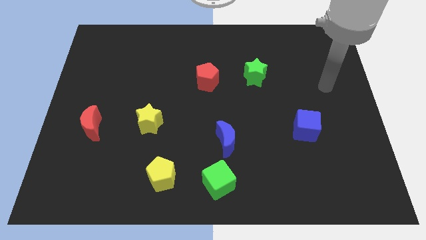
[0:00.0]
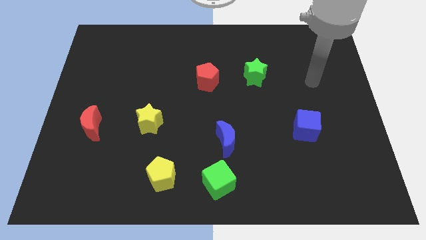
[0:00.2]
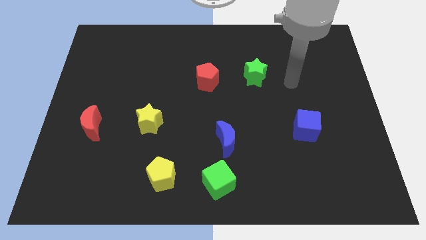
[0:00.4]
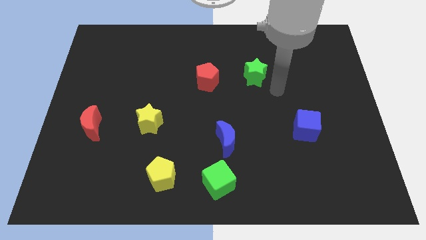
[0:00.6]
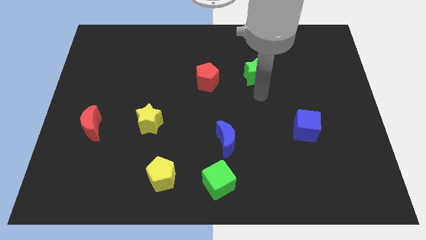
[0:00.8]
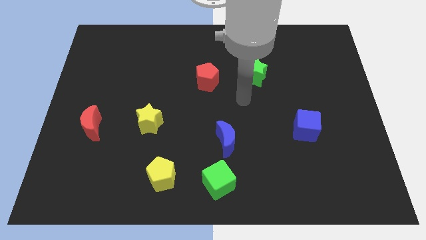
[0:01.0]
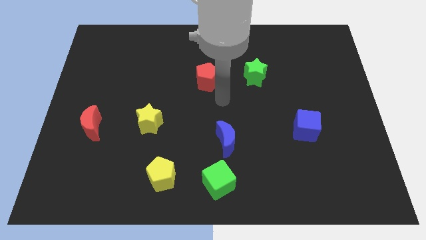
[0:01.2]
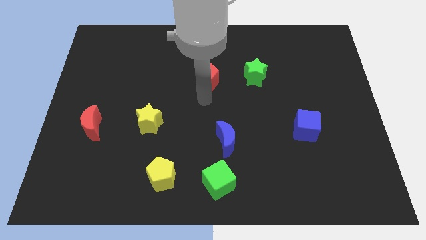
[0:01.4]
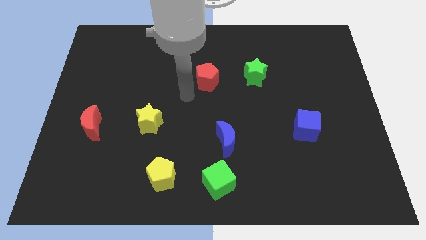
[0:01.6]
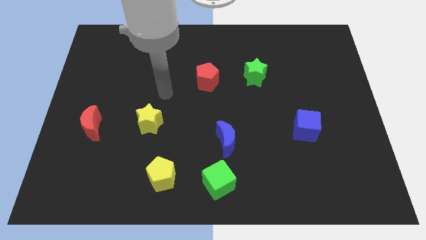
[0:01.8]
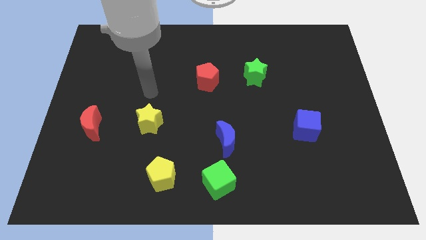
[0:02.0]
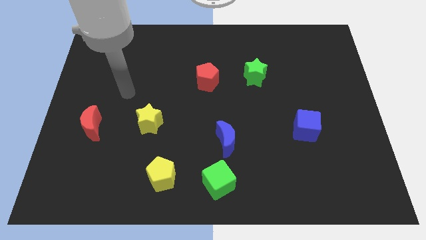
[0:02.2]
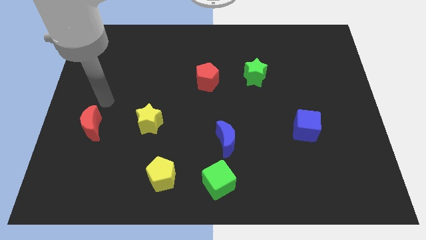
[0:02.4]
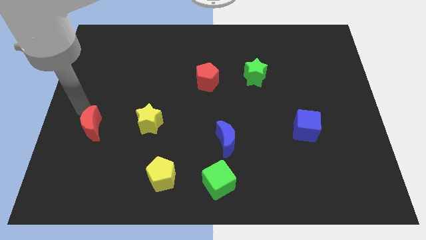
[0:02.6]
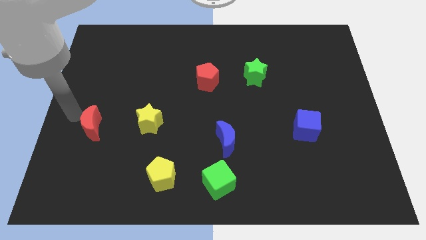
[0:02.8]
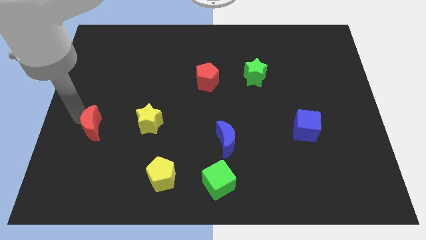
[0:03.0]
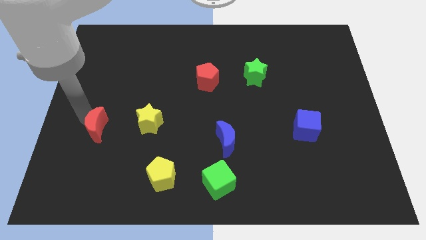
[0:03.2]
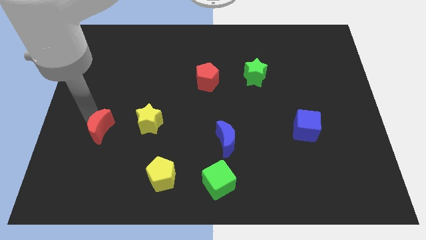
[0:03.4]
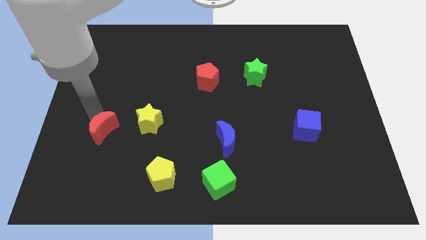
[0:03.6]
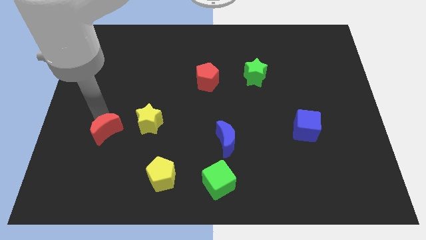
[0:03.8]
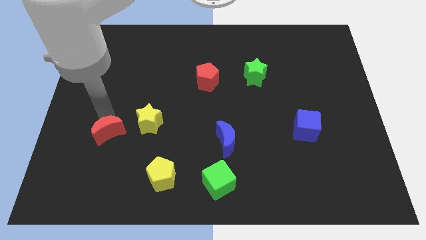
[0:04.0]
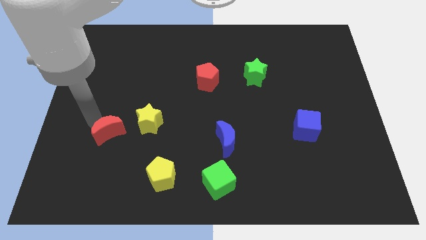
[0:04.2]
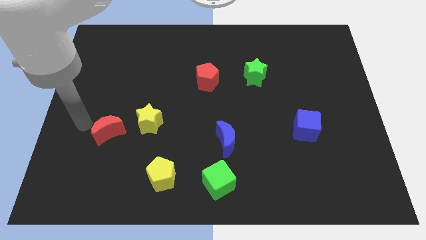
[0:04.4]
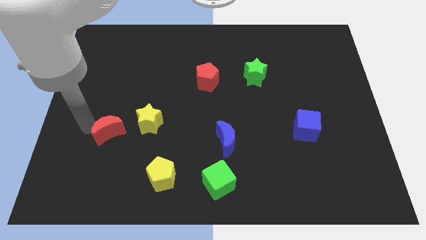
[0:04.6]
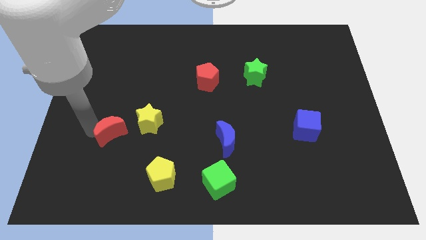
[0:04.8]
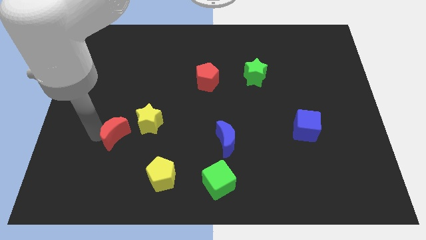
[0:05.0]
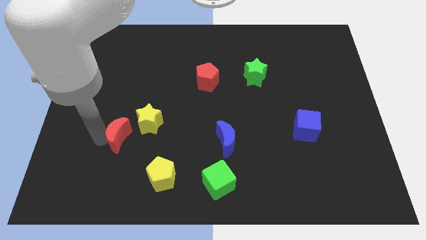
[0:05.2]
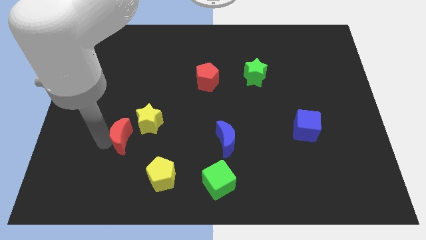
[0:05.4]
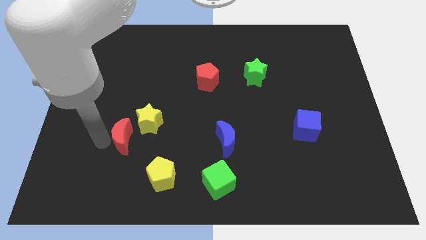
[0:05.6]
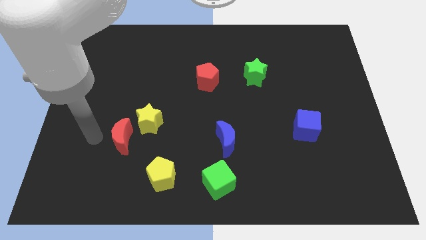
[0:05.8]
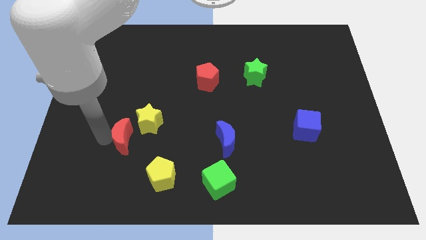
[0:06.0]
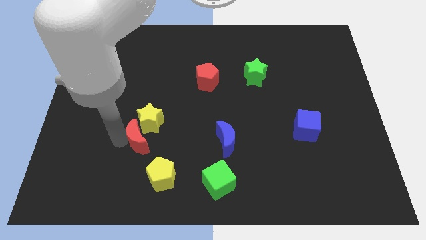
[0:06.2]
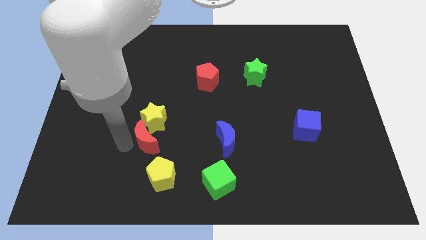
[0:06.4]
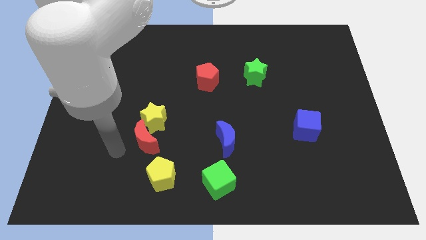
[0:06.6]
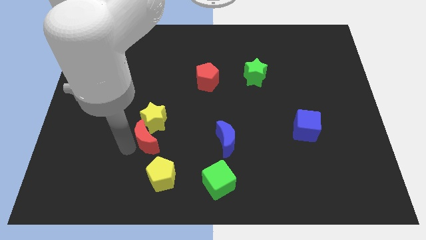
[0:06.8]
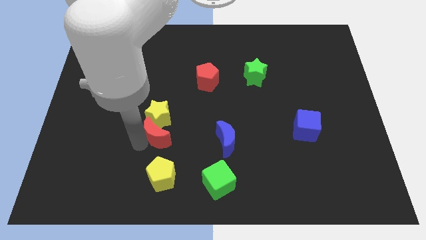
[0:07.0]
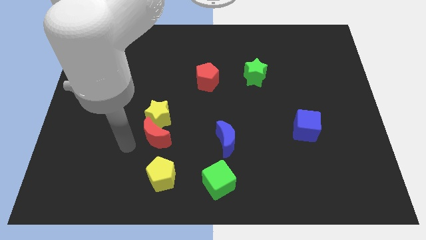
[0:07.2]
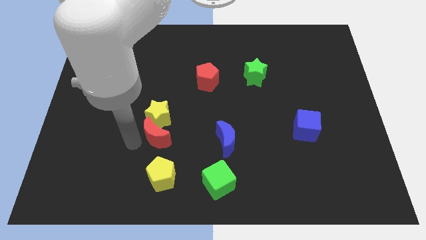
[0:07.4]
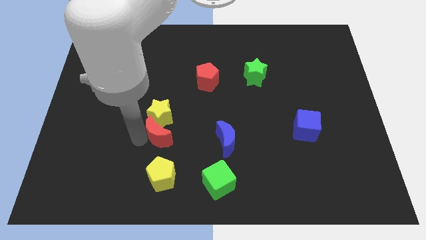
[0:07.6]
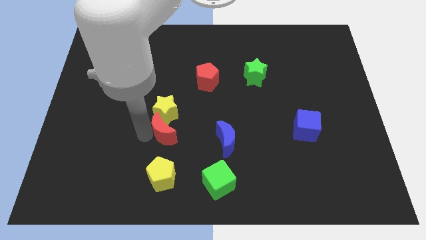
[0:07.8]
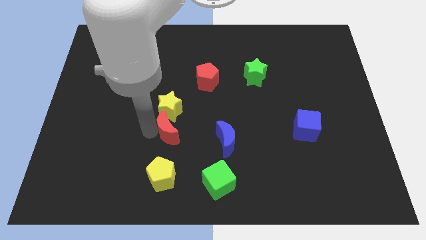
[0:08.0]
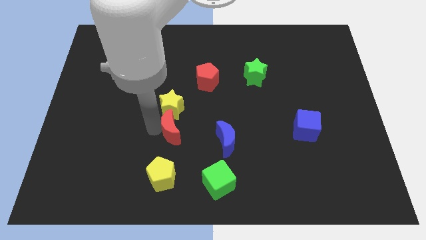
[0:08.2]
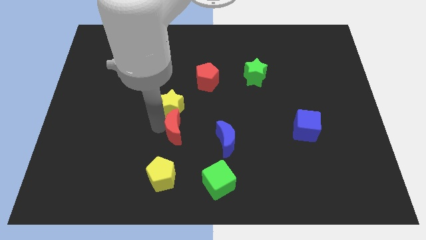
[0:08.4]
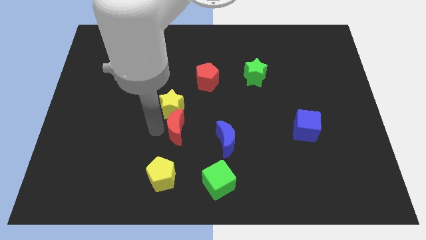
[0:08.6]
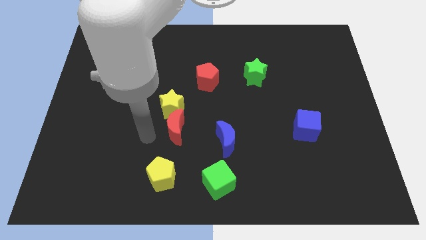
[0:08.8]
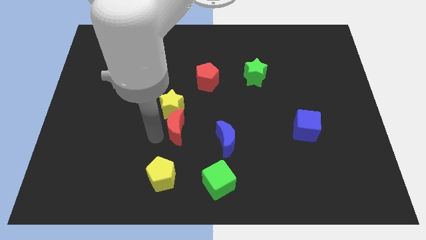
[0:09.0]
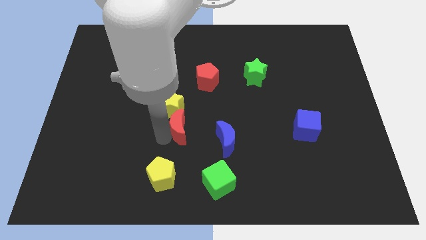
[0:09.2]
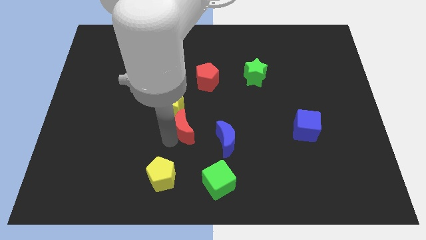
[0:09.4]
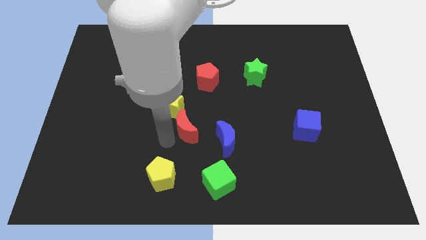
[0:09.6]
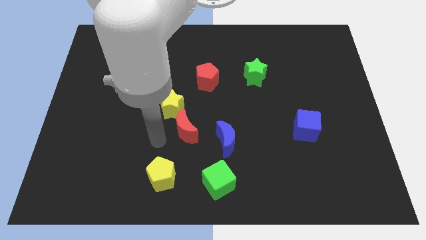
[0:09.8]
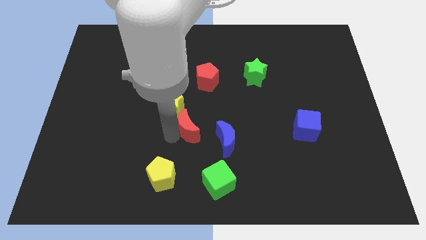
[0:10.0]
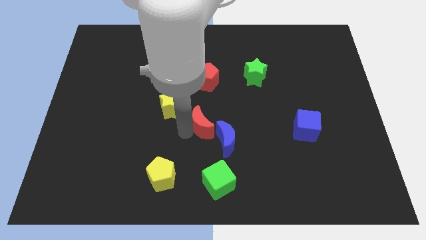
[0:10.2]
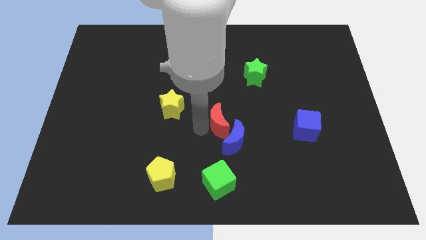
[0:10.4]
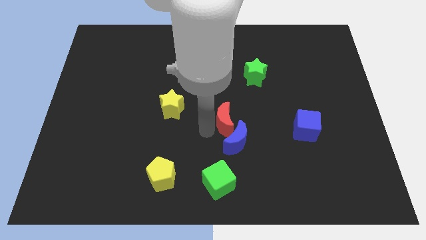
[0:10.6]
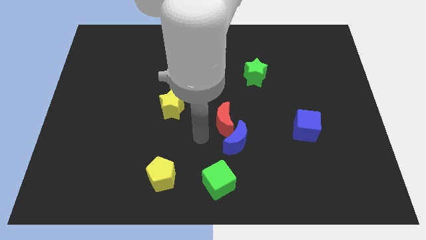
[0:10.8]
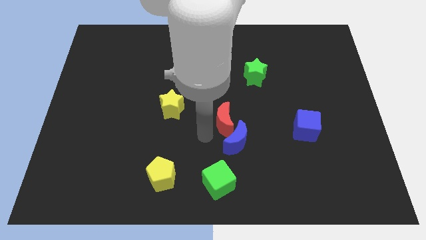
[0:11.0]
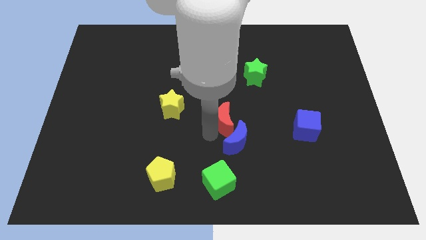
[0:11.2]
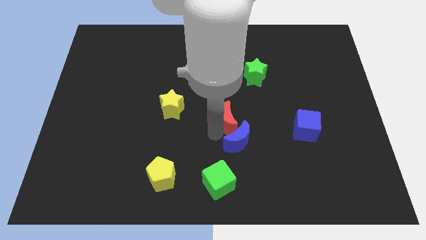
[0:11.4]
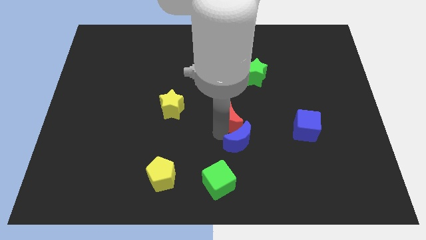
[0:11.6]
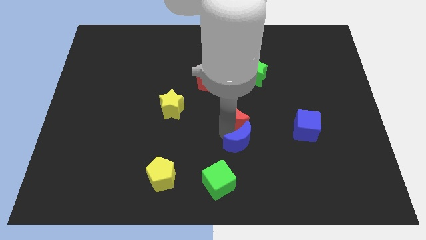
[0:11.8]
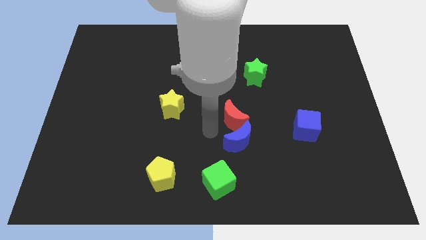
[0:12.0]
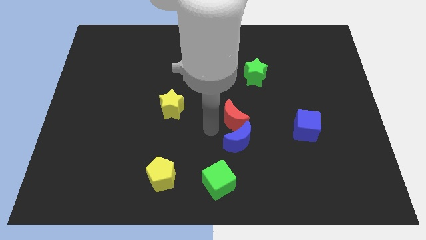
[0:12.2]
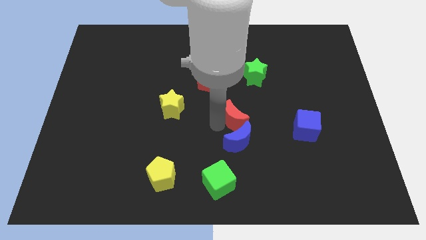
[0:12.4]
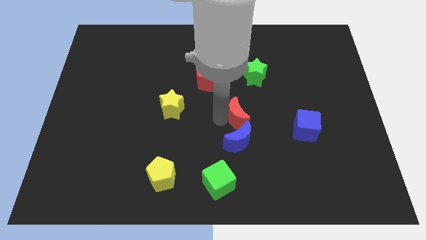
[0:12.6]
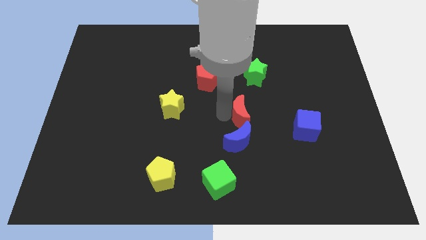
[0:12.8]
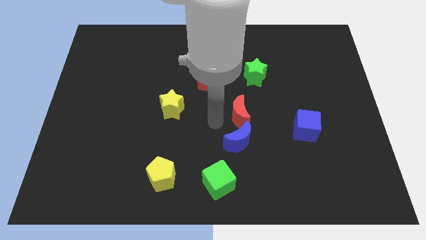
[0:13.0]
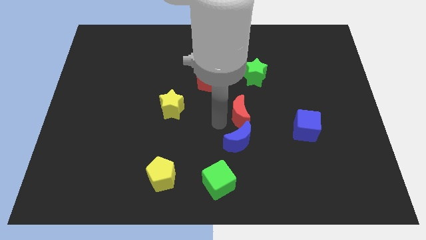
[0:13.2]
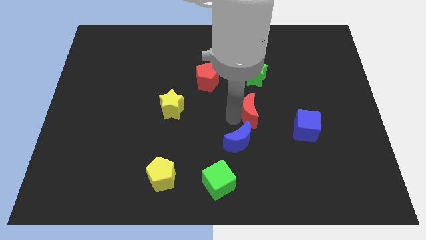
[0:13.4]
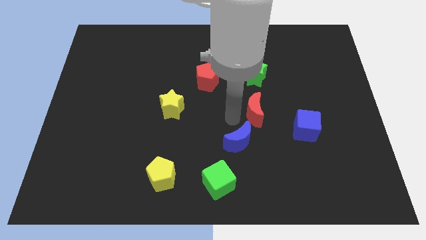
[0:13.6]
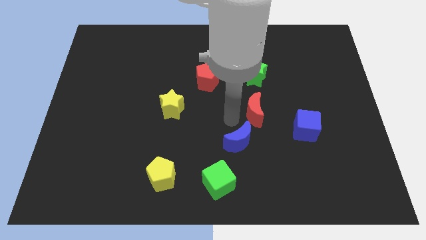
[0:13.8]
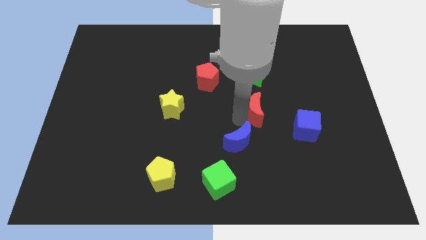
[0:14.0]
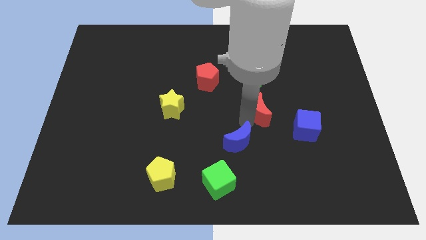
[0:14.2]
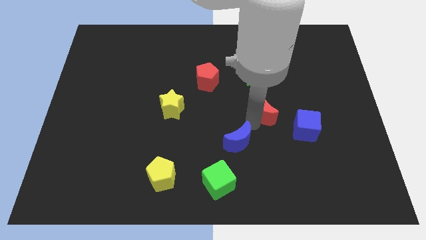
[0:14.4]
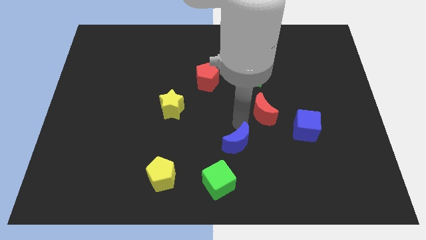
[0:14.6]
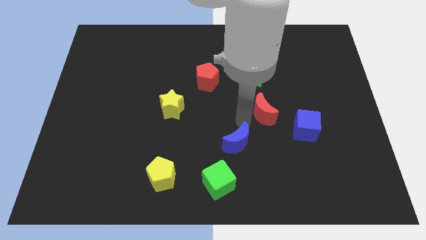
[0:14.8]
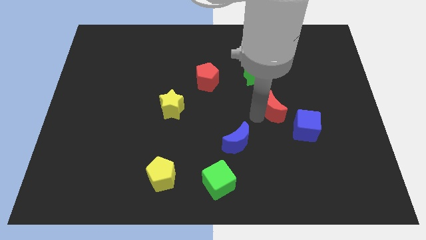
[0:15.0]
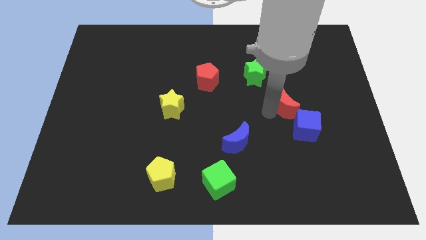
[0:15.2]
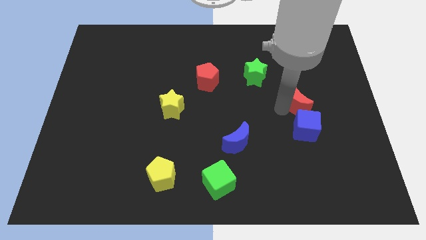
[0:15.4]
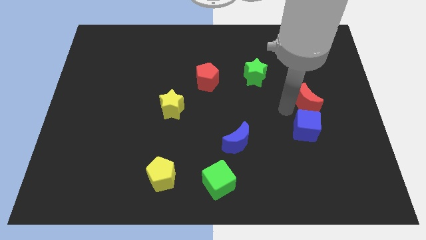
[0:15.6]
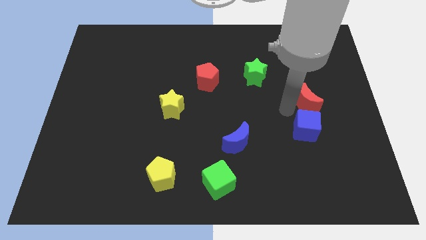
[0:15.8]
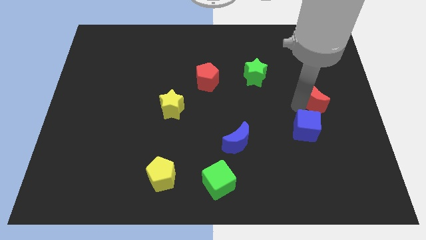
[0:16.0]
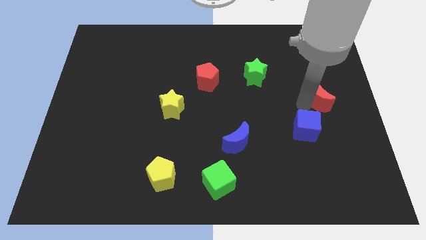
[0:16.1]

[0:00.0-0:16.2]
move the red moon to the right side of the board
